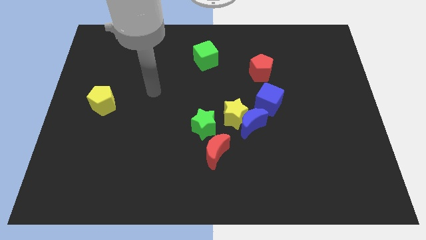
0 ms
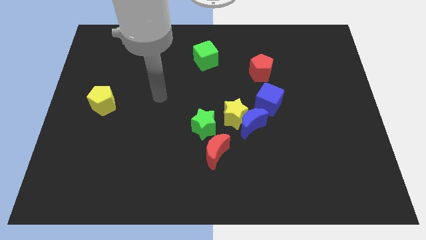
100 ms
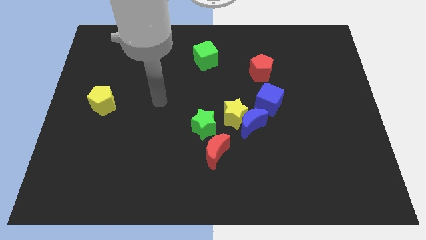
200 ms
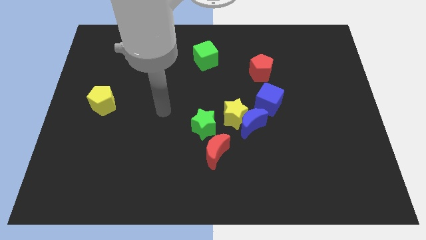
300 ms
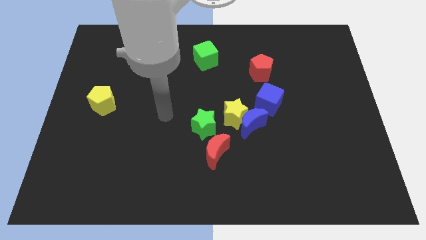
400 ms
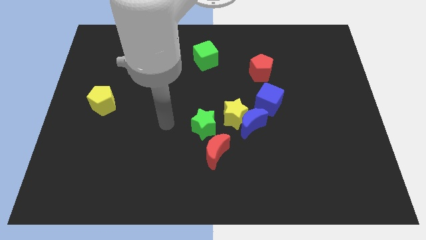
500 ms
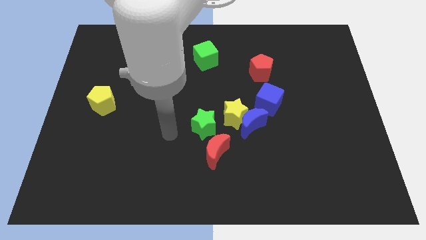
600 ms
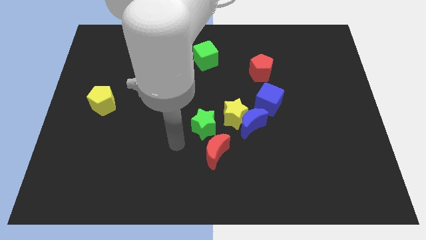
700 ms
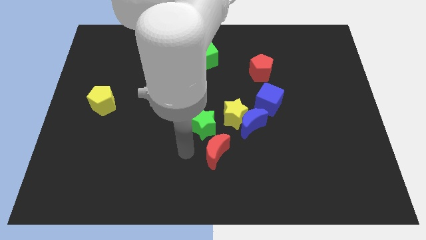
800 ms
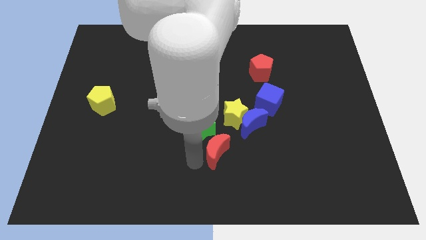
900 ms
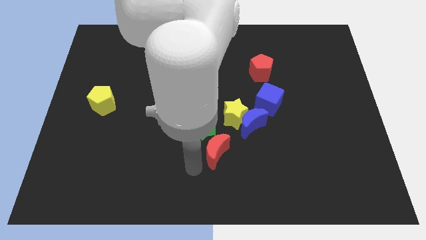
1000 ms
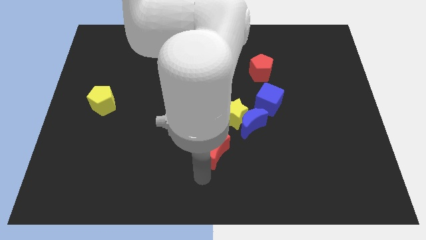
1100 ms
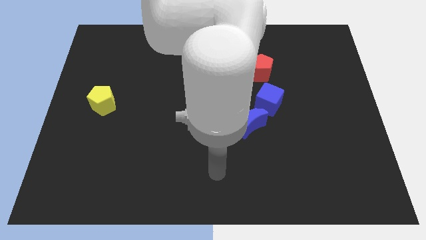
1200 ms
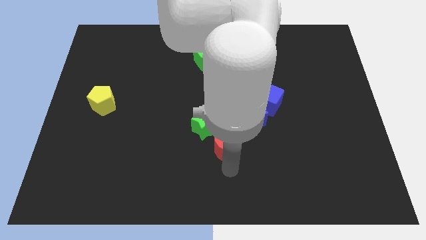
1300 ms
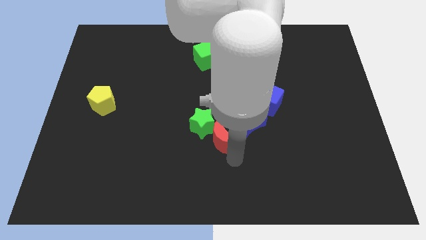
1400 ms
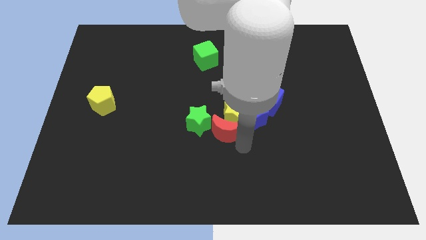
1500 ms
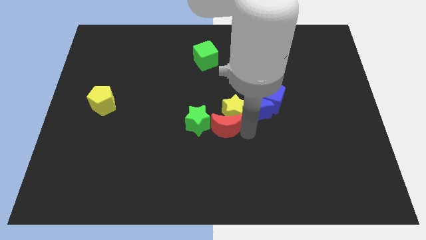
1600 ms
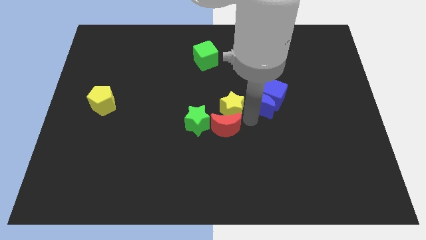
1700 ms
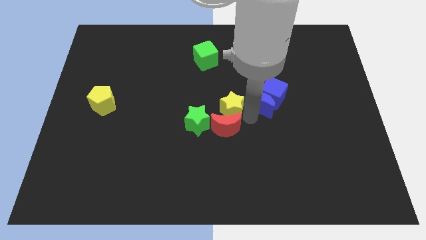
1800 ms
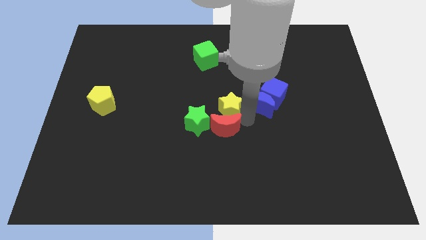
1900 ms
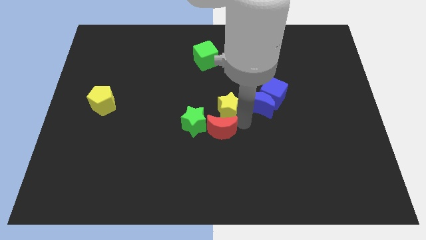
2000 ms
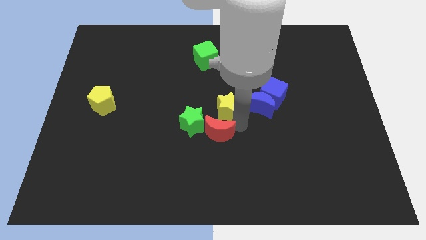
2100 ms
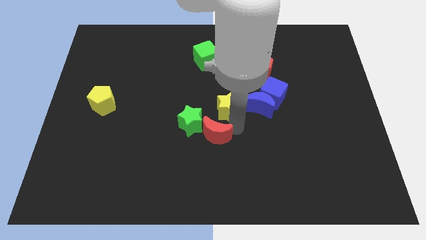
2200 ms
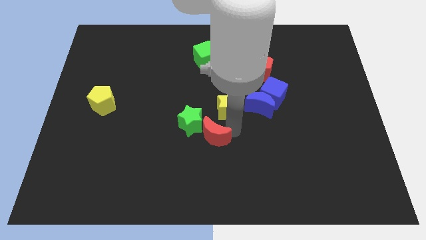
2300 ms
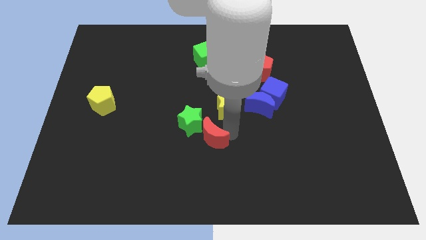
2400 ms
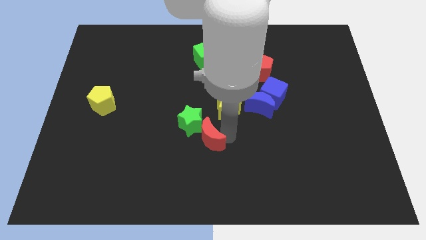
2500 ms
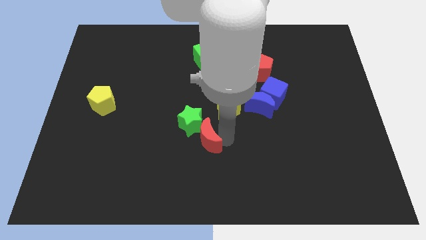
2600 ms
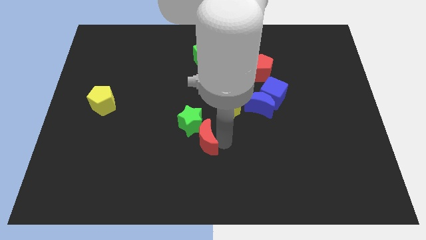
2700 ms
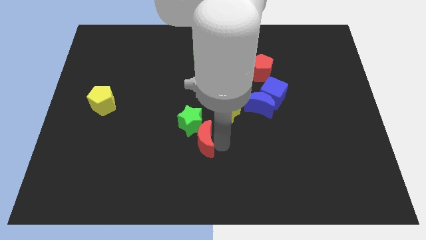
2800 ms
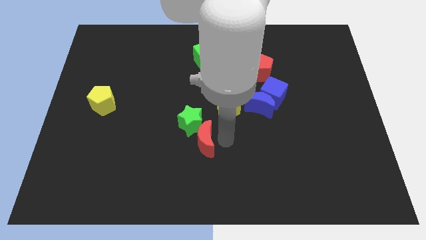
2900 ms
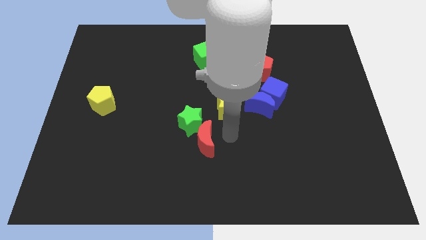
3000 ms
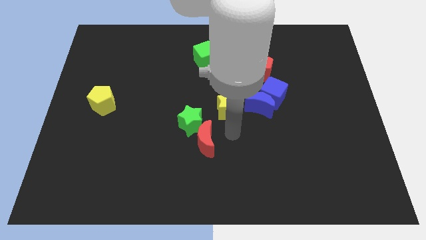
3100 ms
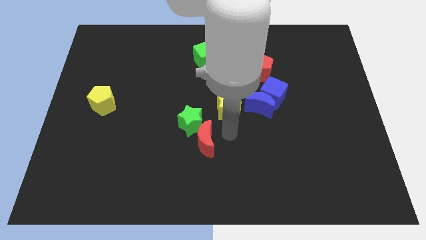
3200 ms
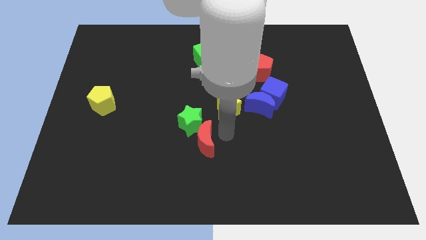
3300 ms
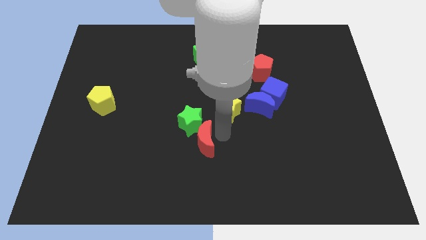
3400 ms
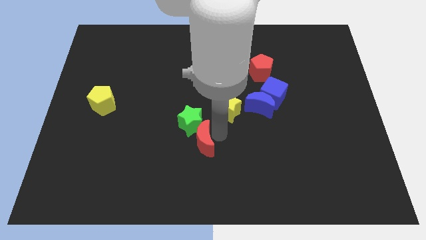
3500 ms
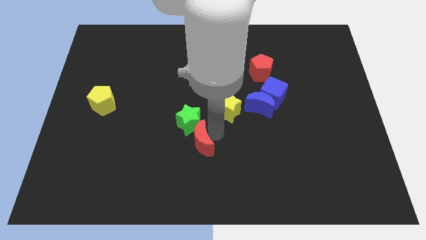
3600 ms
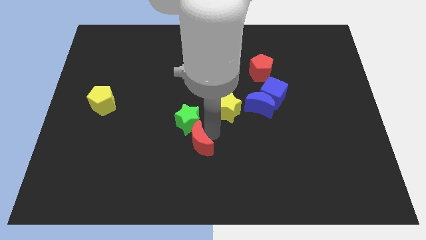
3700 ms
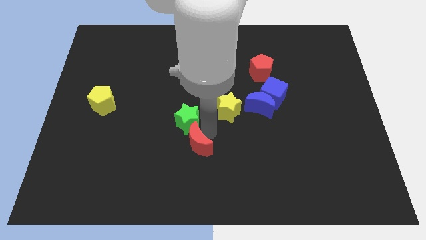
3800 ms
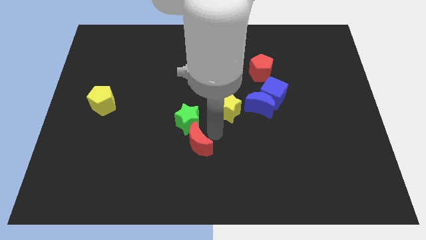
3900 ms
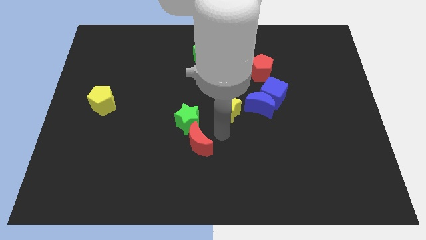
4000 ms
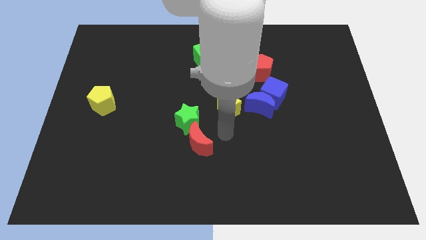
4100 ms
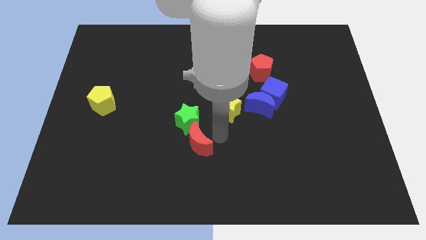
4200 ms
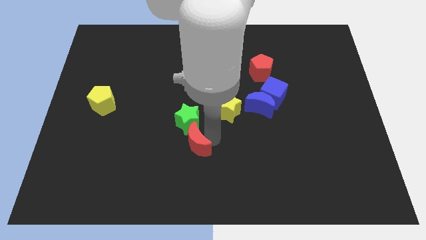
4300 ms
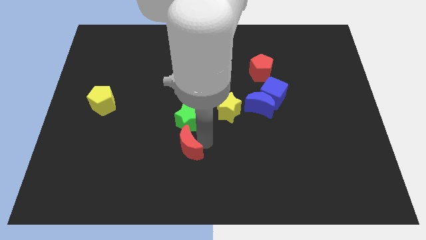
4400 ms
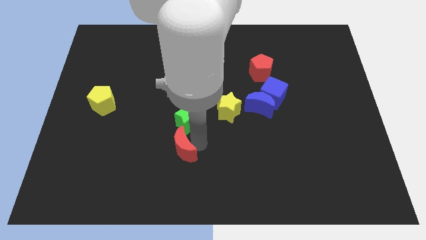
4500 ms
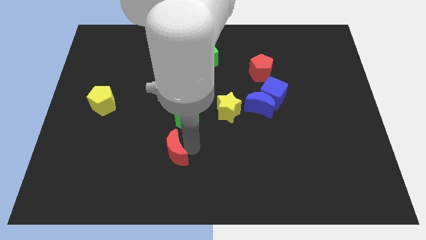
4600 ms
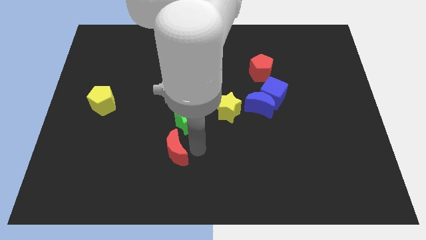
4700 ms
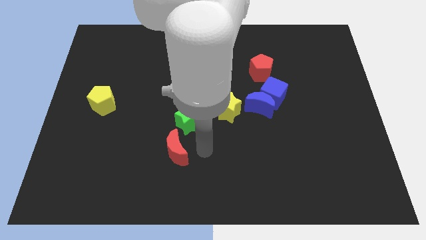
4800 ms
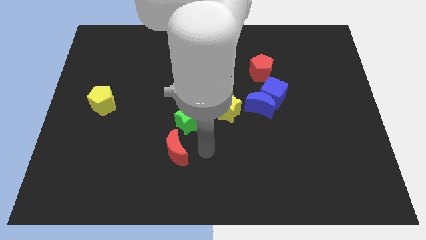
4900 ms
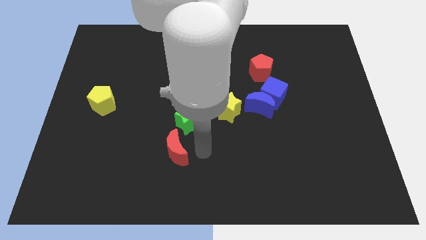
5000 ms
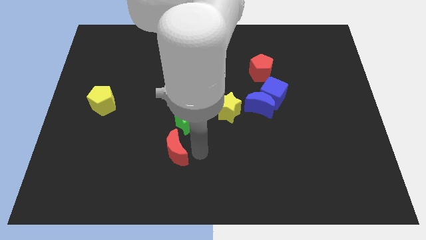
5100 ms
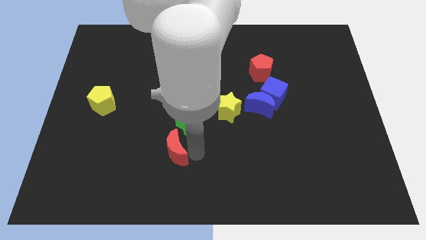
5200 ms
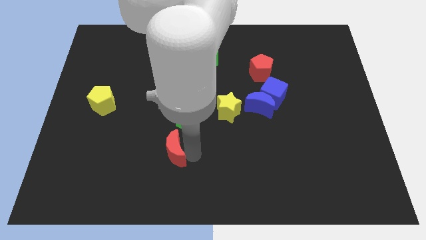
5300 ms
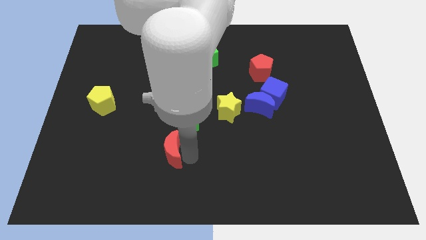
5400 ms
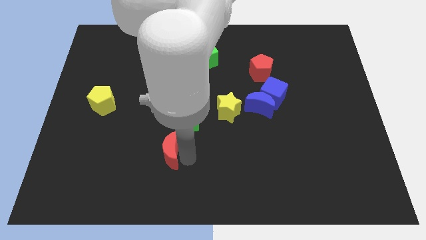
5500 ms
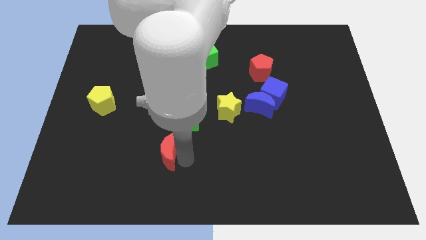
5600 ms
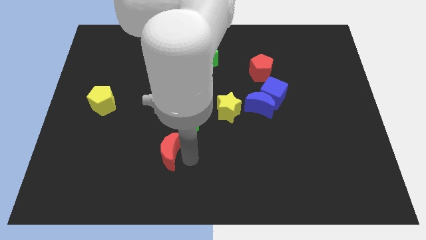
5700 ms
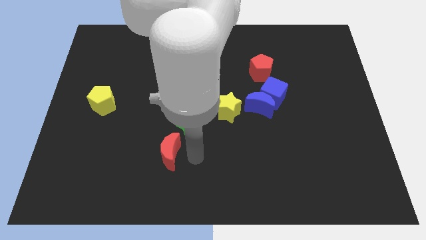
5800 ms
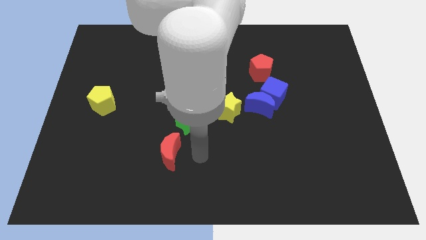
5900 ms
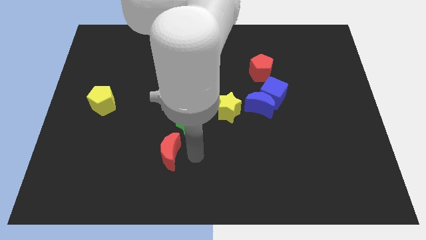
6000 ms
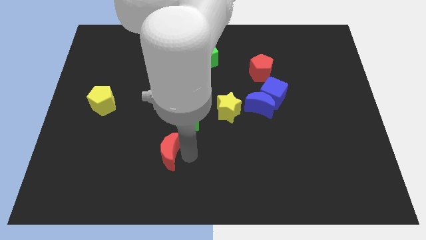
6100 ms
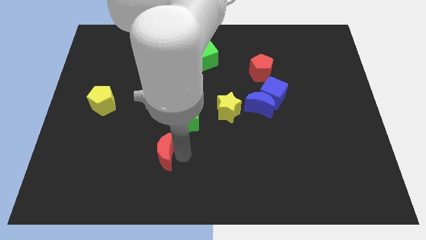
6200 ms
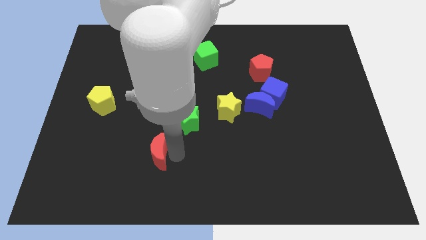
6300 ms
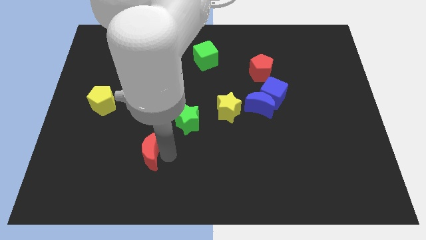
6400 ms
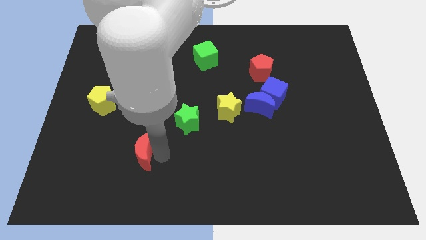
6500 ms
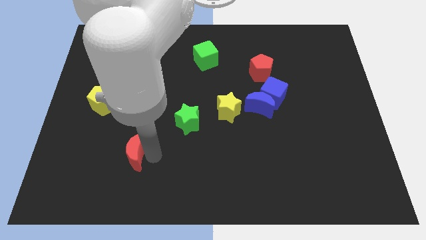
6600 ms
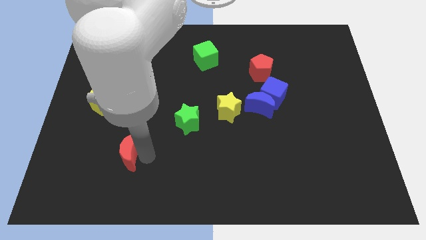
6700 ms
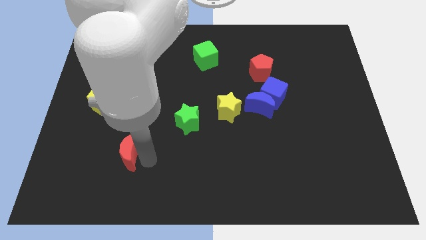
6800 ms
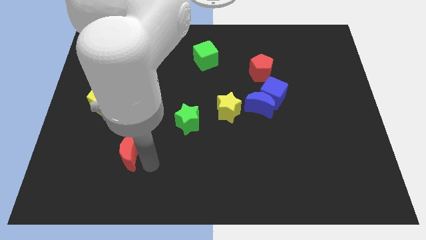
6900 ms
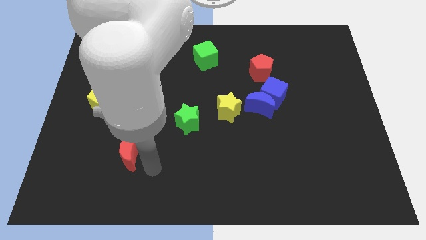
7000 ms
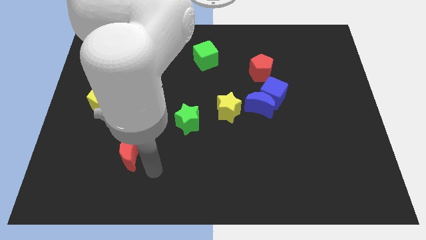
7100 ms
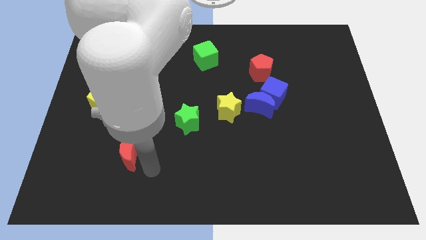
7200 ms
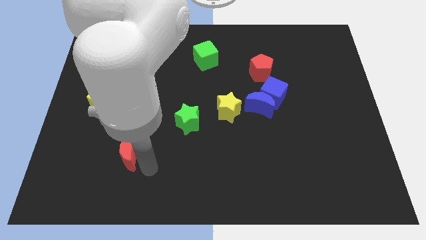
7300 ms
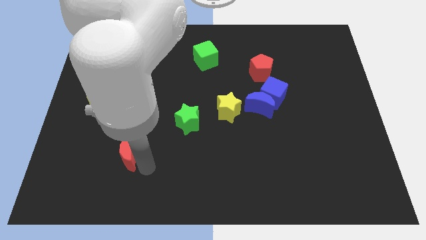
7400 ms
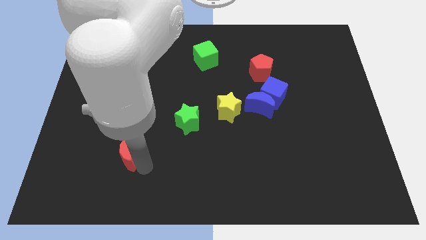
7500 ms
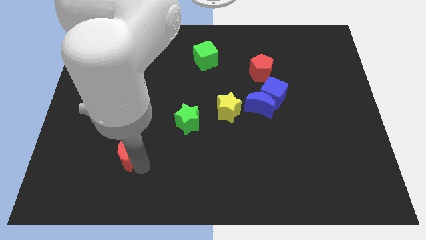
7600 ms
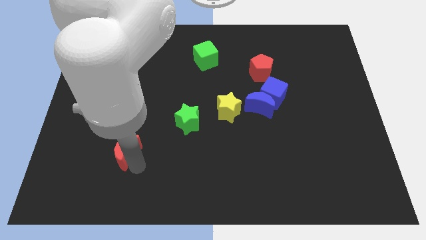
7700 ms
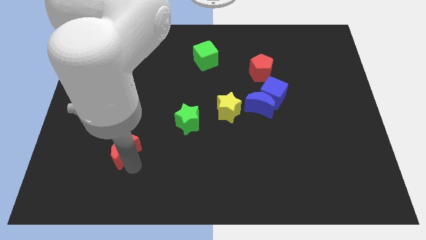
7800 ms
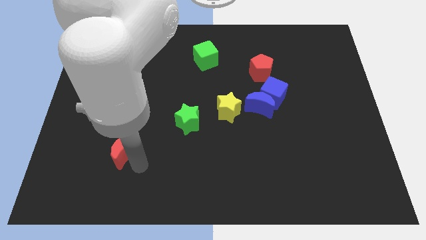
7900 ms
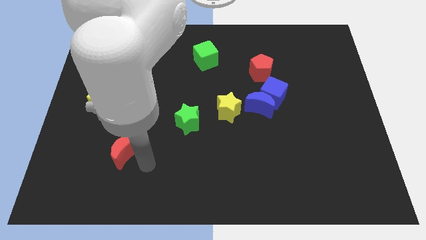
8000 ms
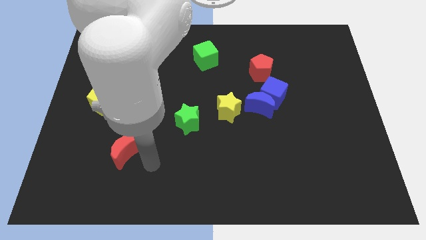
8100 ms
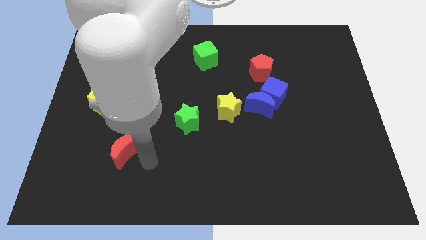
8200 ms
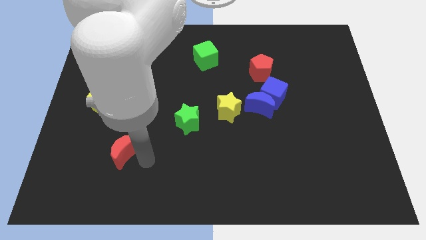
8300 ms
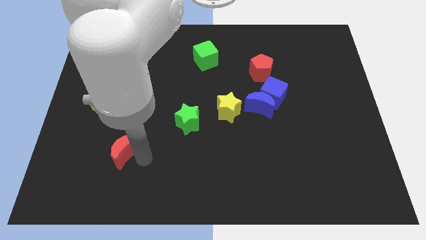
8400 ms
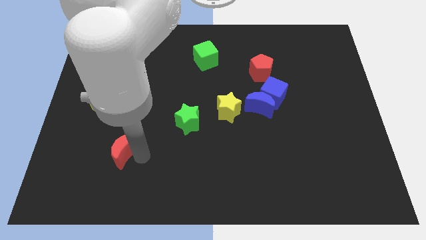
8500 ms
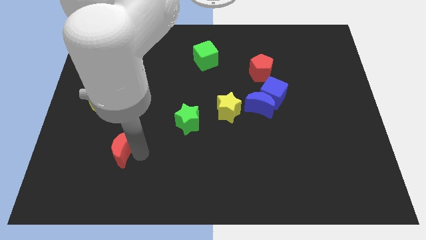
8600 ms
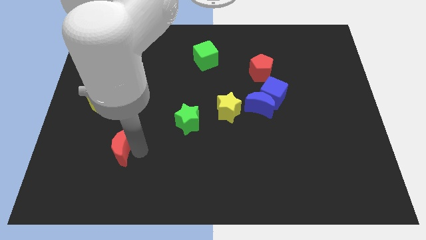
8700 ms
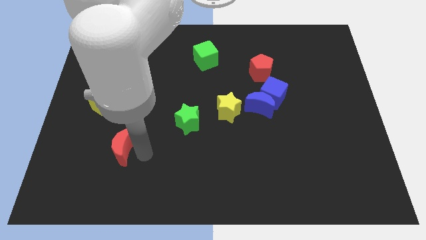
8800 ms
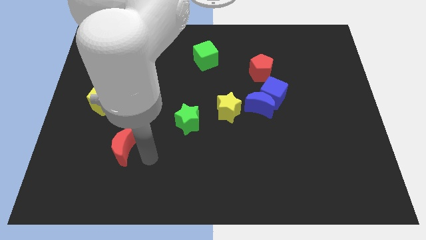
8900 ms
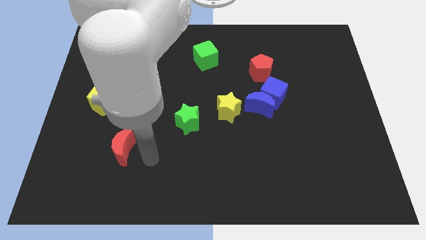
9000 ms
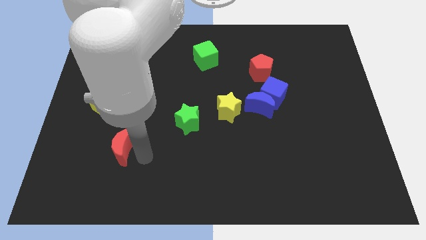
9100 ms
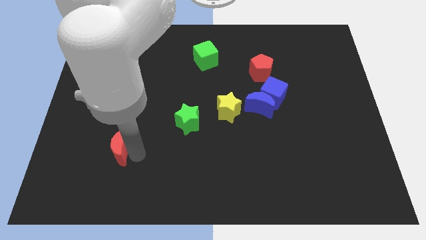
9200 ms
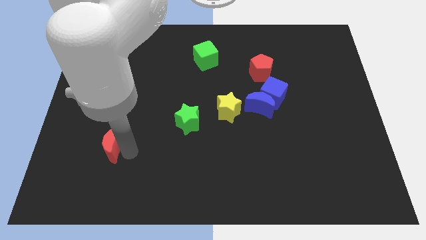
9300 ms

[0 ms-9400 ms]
move the red moon to the bottom of the yellow pentagon
